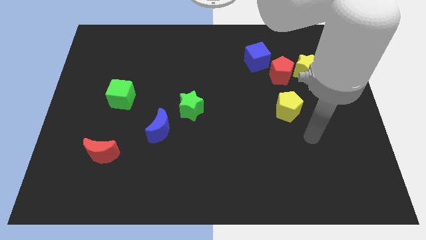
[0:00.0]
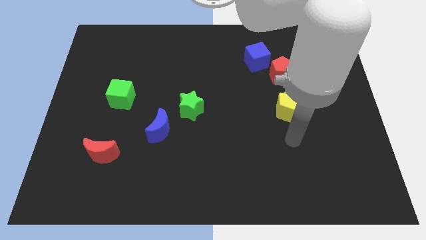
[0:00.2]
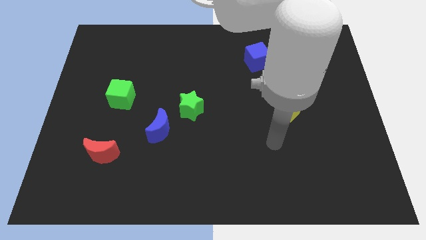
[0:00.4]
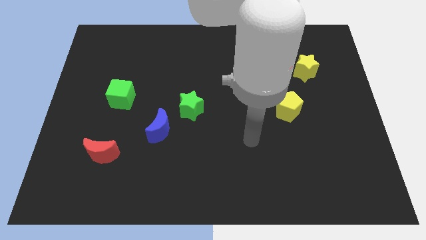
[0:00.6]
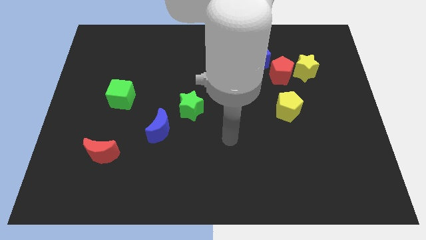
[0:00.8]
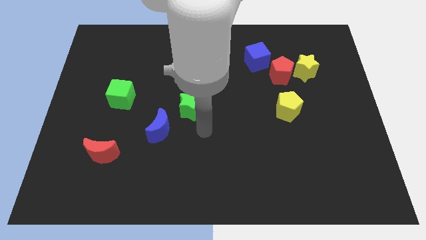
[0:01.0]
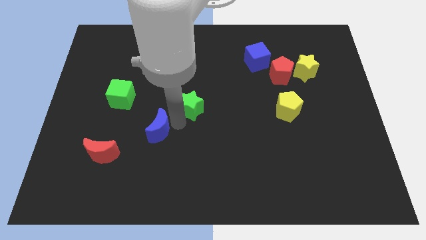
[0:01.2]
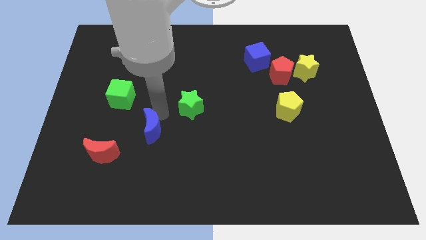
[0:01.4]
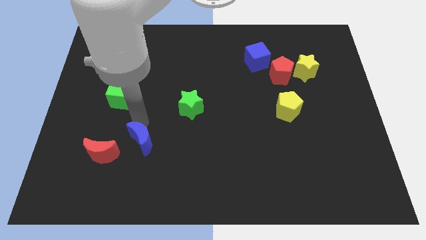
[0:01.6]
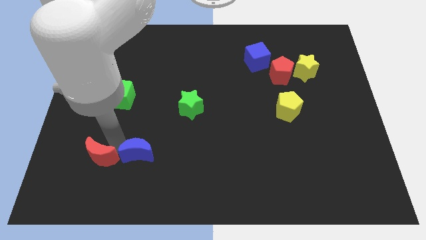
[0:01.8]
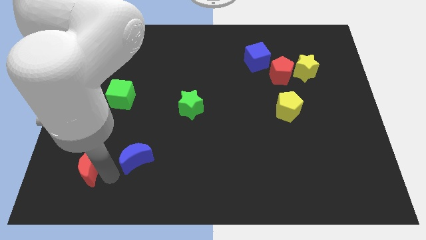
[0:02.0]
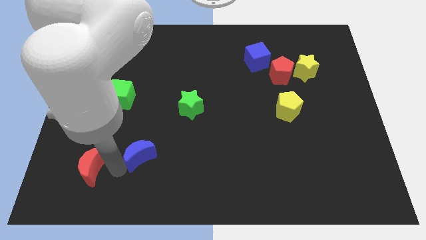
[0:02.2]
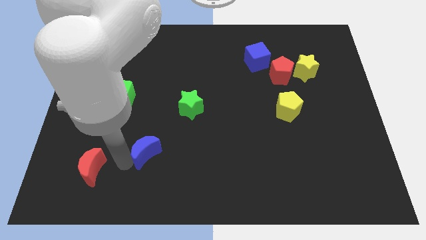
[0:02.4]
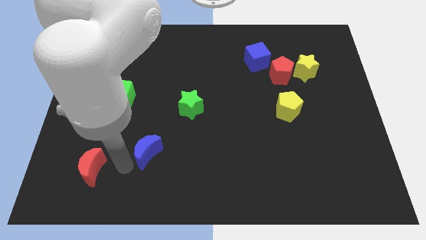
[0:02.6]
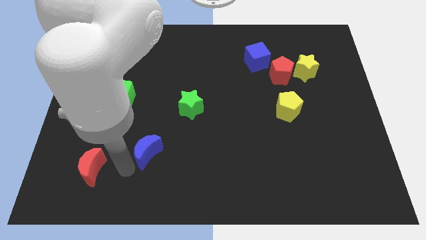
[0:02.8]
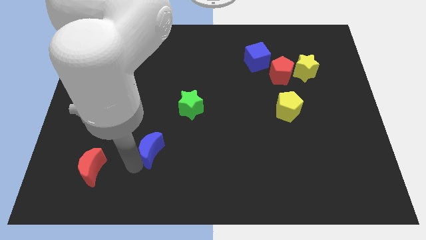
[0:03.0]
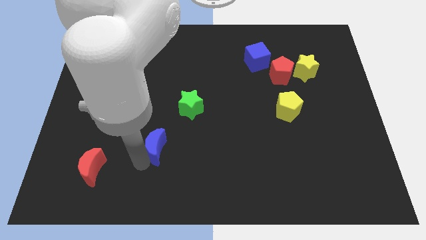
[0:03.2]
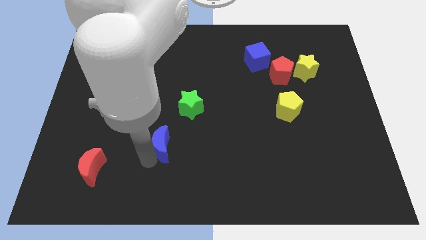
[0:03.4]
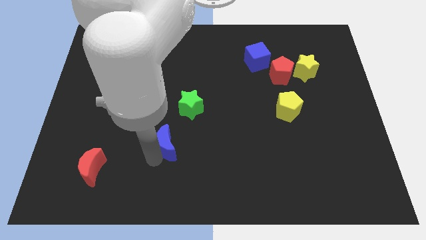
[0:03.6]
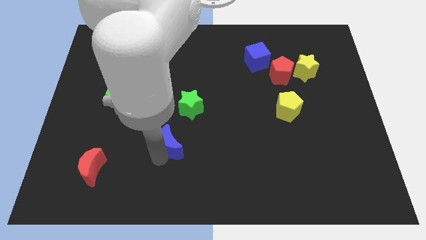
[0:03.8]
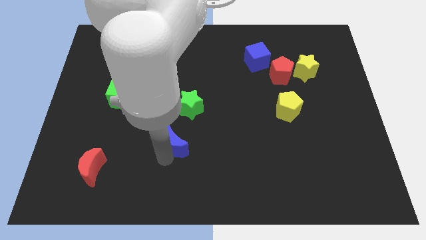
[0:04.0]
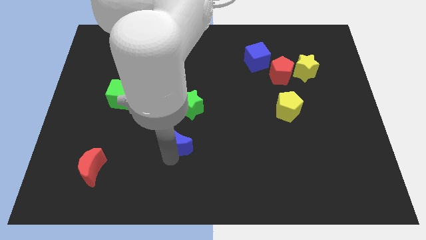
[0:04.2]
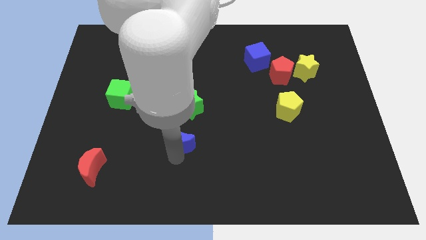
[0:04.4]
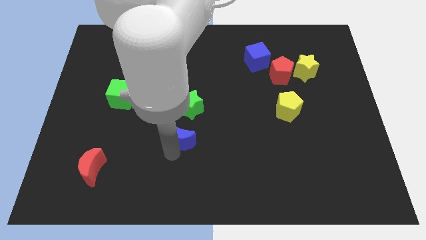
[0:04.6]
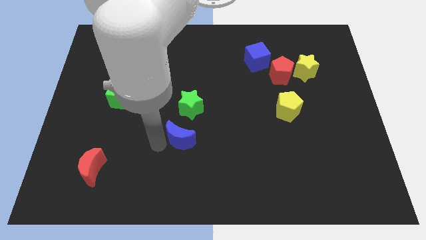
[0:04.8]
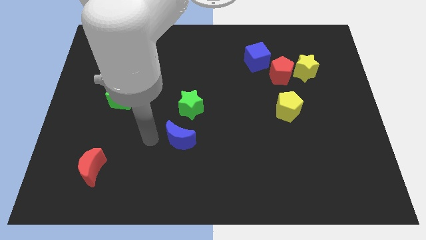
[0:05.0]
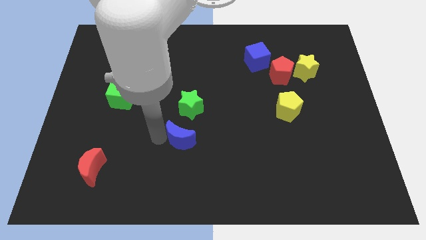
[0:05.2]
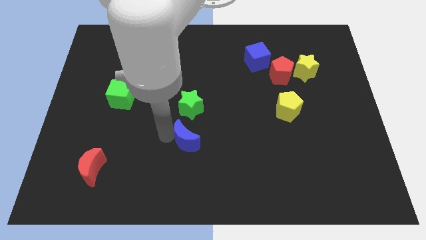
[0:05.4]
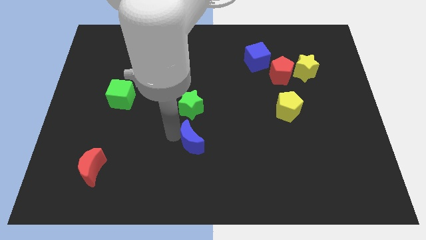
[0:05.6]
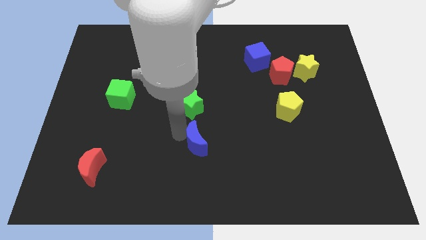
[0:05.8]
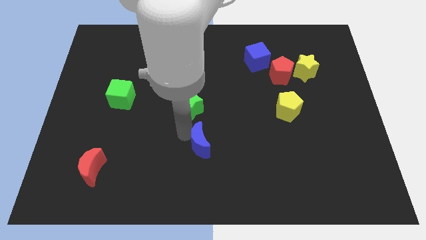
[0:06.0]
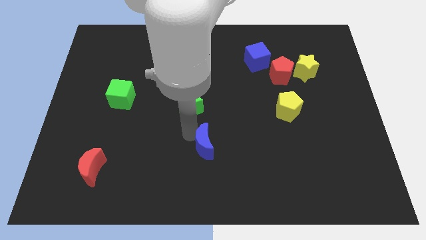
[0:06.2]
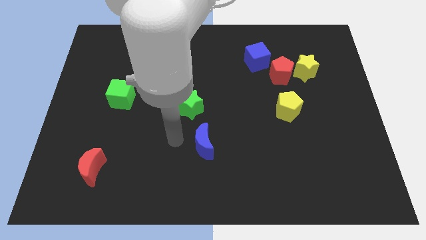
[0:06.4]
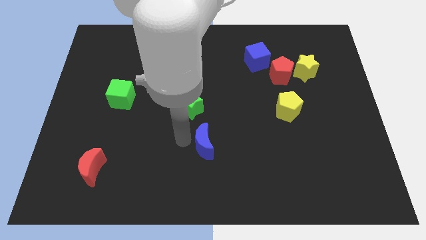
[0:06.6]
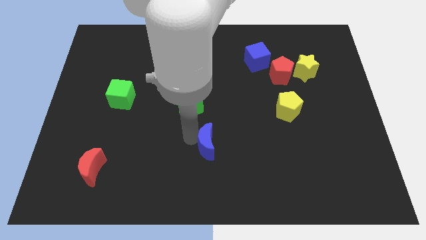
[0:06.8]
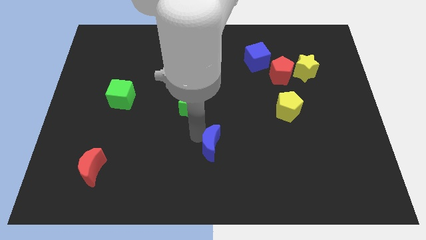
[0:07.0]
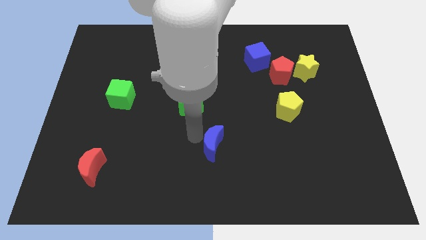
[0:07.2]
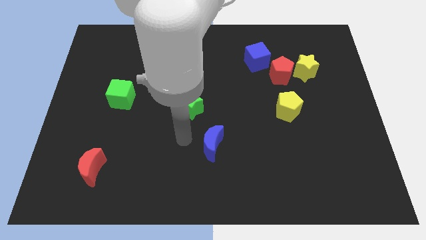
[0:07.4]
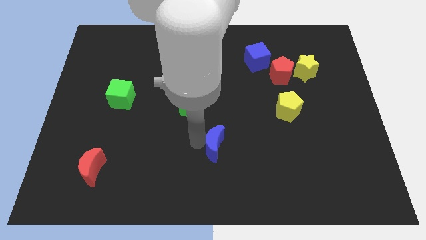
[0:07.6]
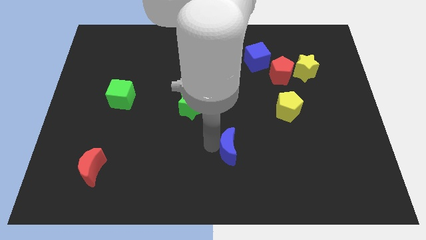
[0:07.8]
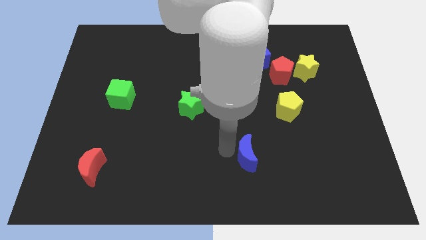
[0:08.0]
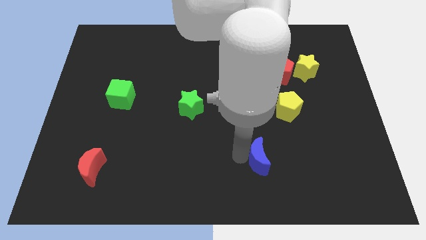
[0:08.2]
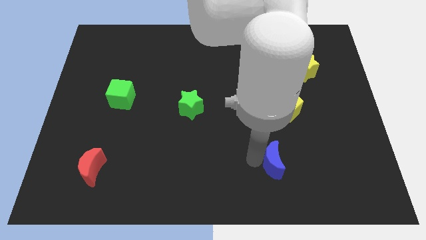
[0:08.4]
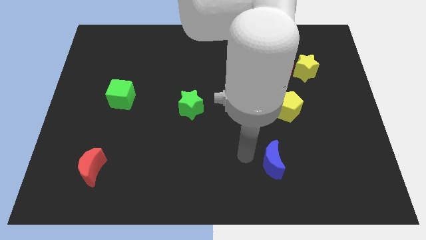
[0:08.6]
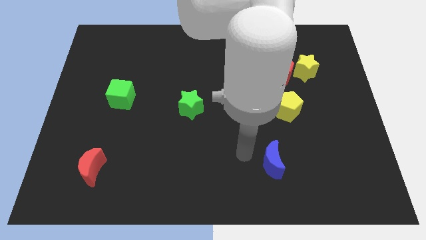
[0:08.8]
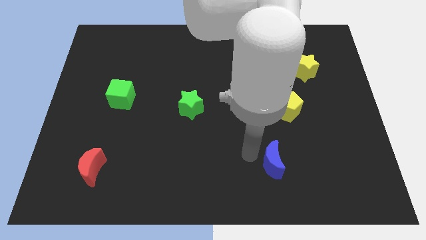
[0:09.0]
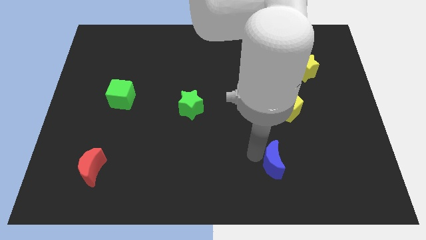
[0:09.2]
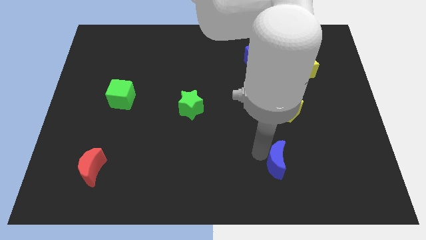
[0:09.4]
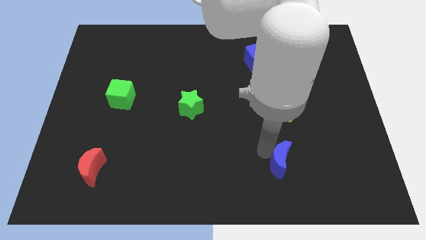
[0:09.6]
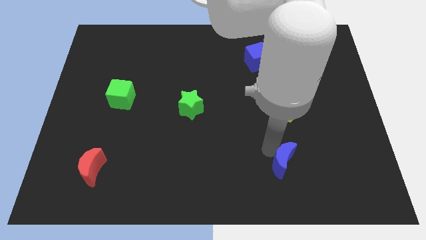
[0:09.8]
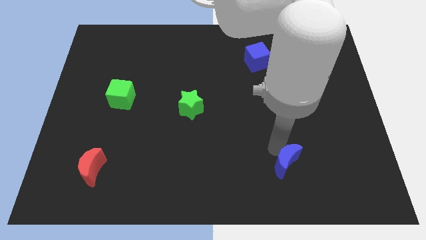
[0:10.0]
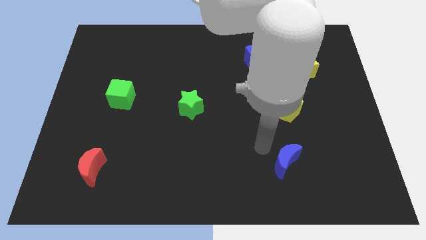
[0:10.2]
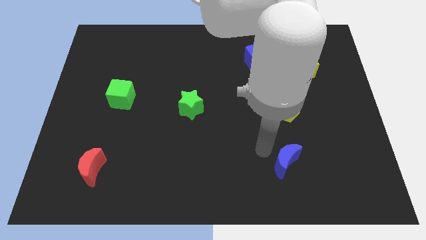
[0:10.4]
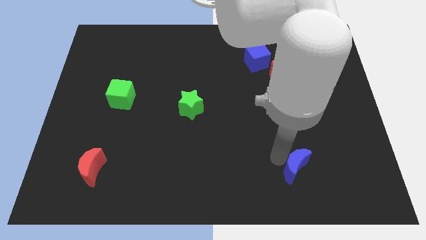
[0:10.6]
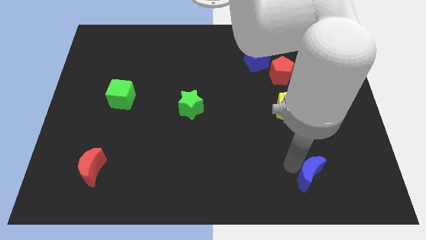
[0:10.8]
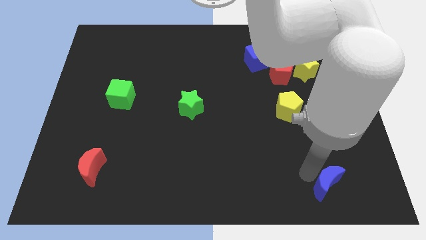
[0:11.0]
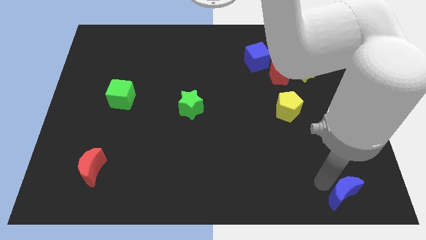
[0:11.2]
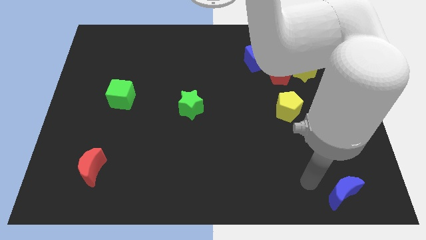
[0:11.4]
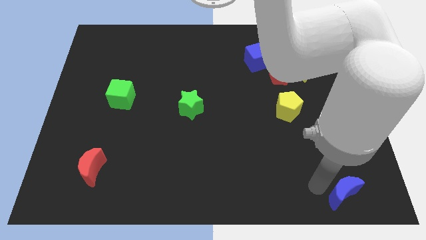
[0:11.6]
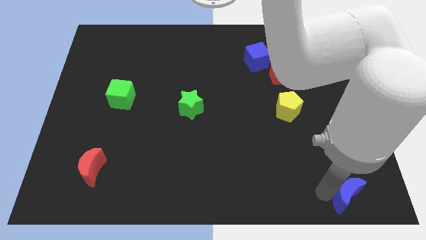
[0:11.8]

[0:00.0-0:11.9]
move the blue moon to the bottom right of the board

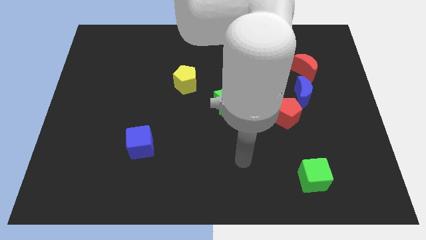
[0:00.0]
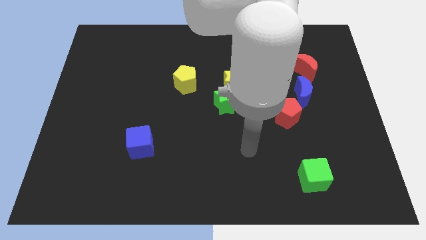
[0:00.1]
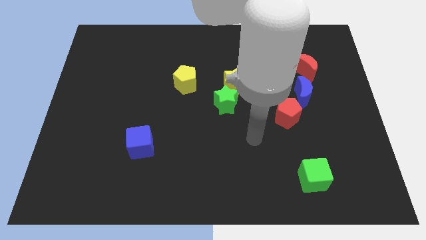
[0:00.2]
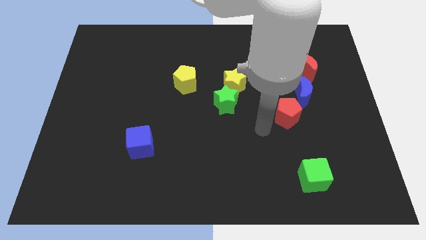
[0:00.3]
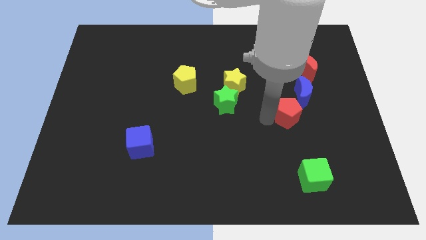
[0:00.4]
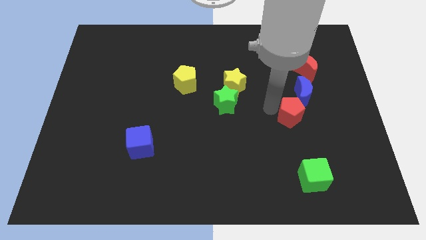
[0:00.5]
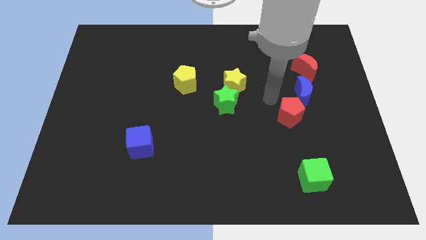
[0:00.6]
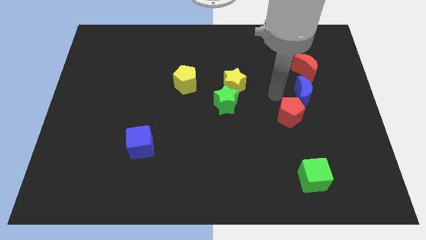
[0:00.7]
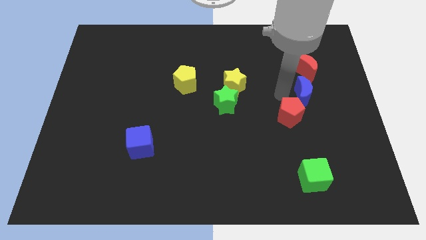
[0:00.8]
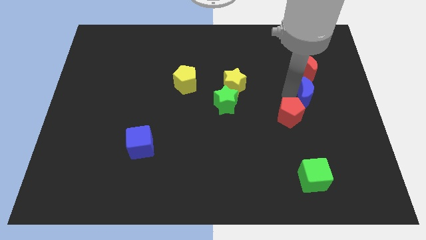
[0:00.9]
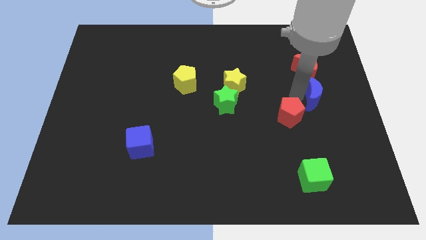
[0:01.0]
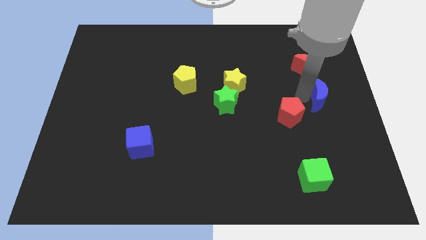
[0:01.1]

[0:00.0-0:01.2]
push the blue moon to the center right
